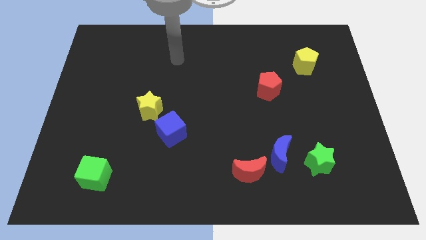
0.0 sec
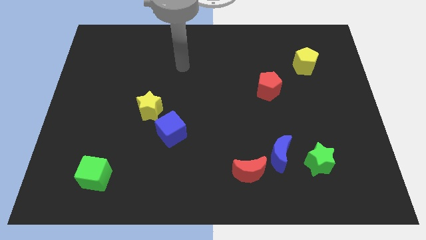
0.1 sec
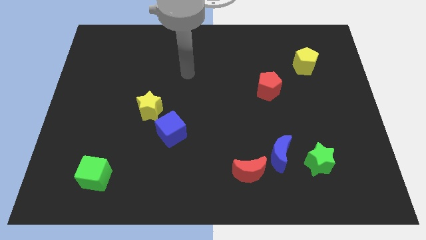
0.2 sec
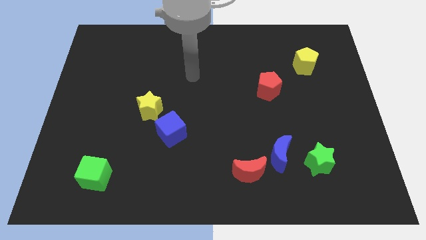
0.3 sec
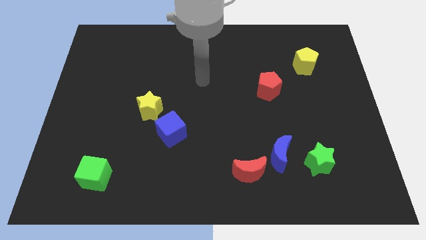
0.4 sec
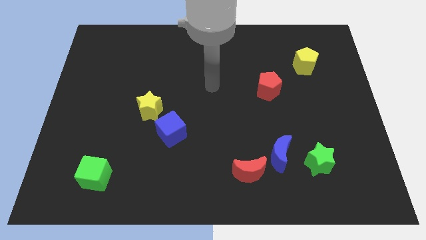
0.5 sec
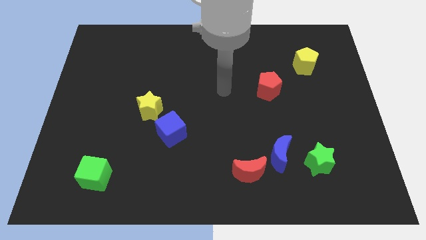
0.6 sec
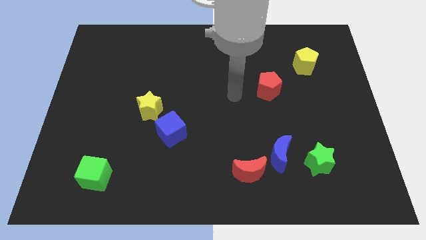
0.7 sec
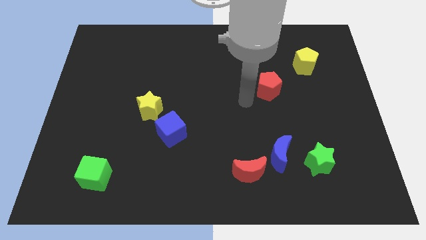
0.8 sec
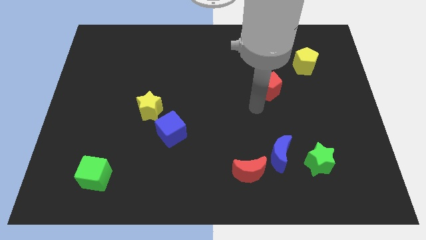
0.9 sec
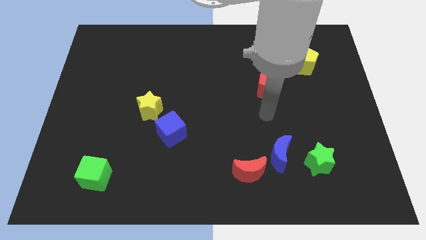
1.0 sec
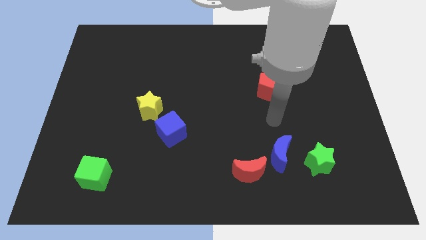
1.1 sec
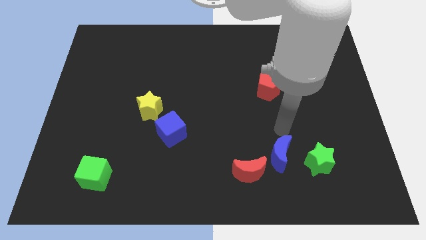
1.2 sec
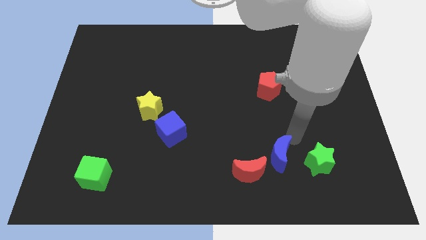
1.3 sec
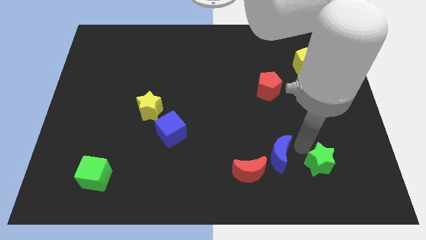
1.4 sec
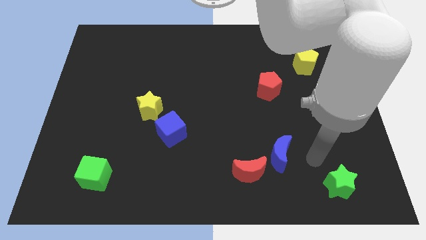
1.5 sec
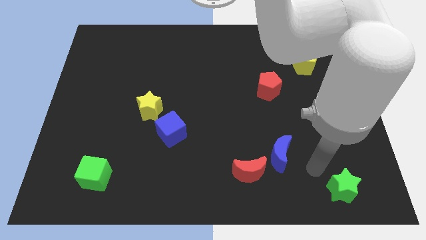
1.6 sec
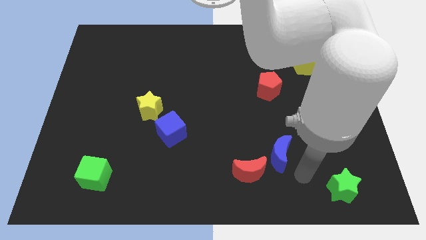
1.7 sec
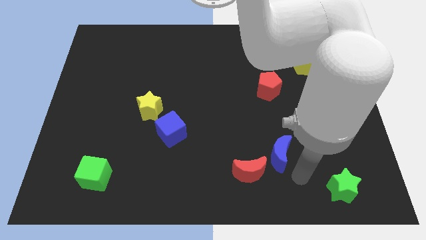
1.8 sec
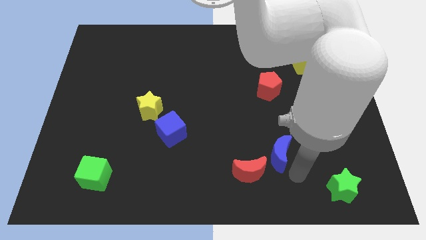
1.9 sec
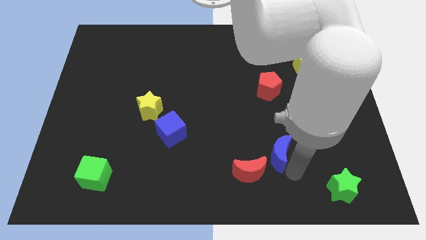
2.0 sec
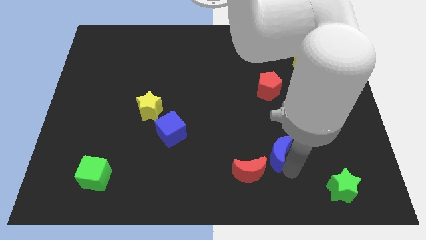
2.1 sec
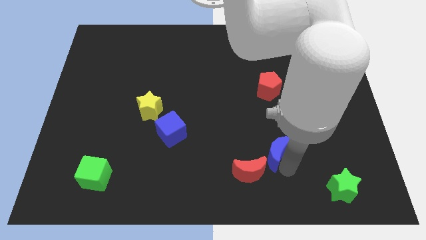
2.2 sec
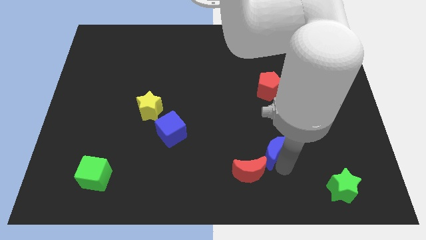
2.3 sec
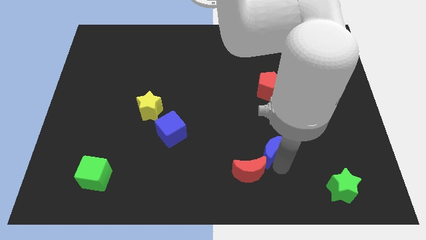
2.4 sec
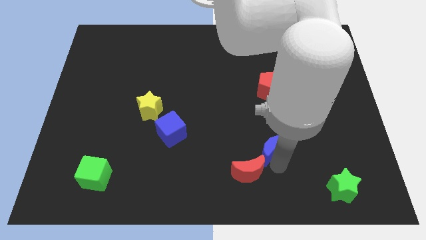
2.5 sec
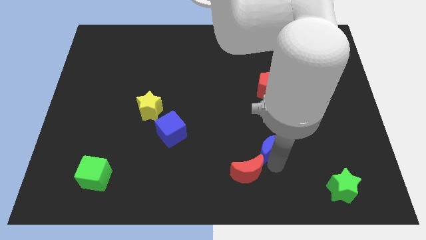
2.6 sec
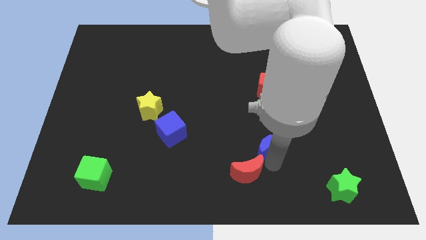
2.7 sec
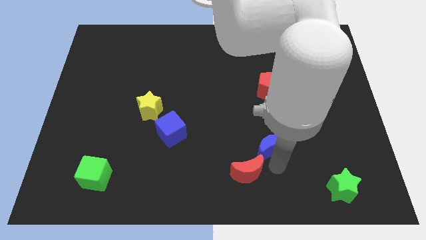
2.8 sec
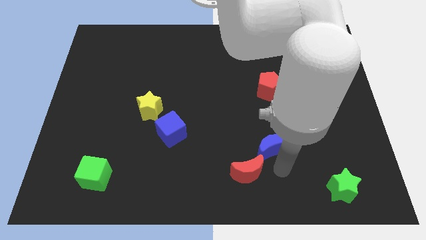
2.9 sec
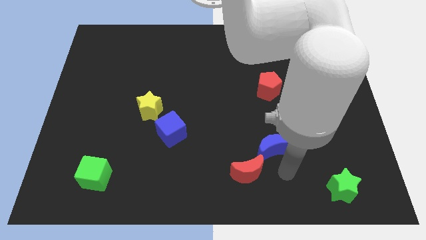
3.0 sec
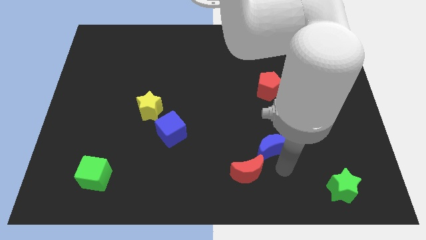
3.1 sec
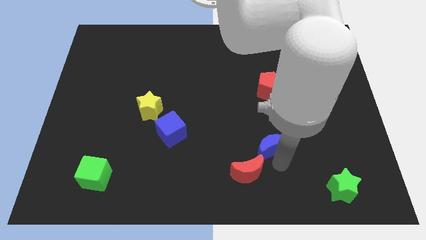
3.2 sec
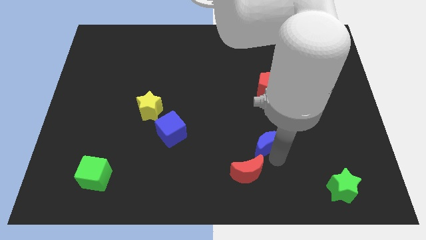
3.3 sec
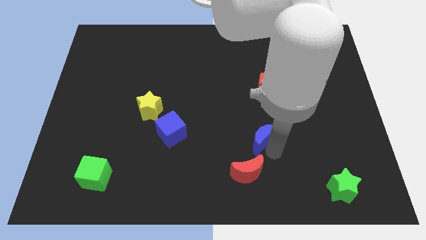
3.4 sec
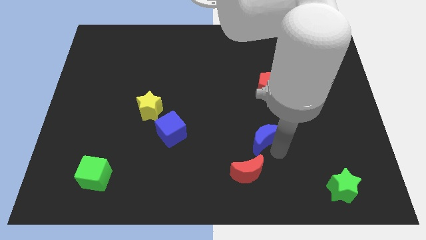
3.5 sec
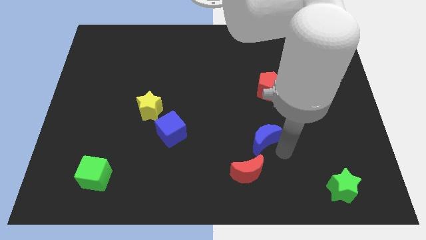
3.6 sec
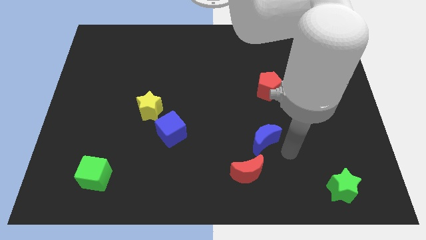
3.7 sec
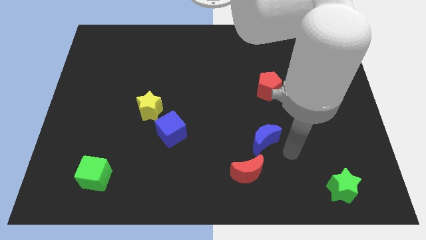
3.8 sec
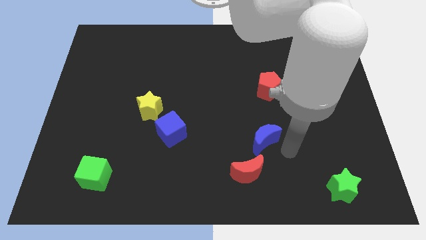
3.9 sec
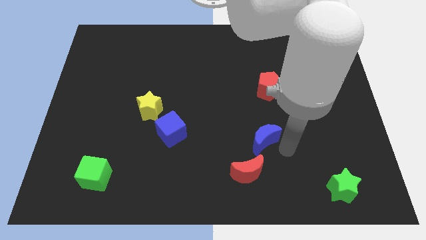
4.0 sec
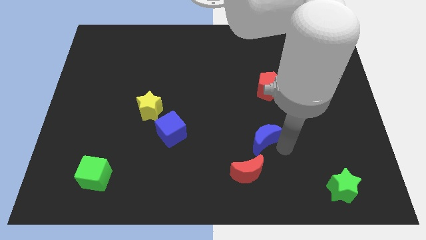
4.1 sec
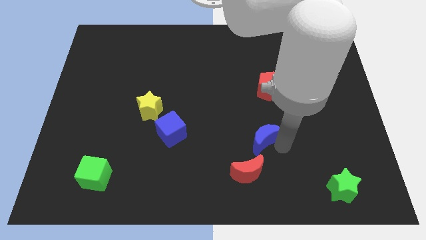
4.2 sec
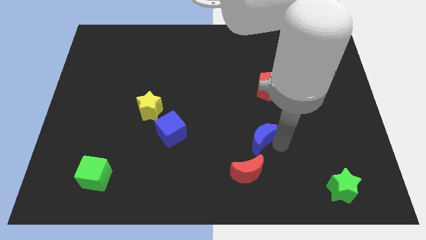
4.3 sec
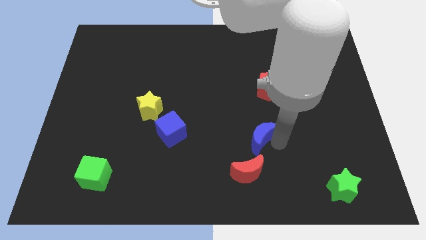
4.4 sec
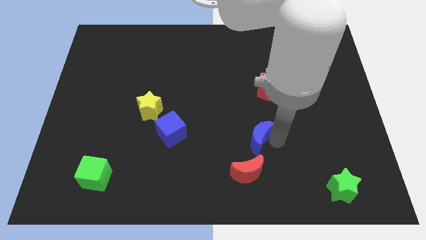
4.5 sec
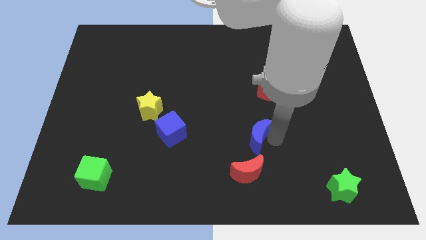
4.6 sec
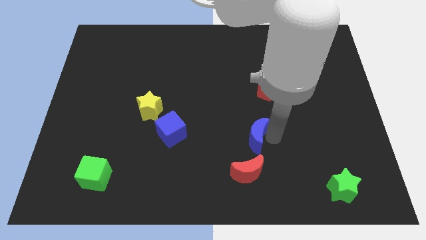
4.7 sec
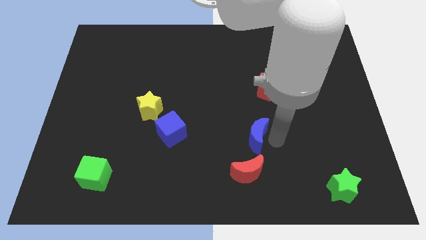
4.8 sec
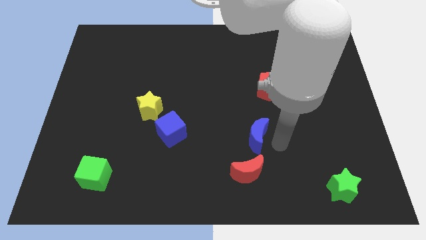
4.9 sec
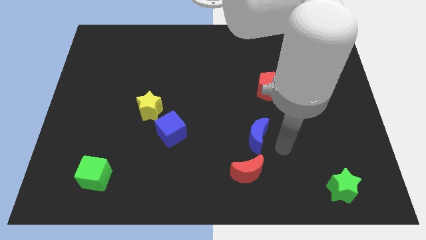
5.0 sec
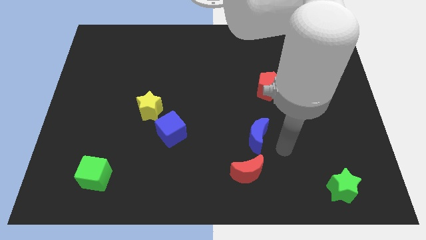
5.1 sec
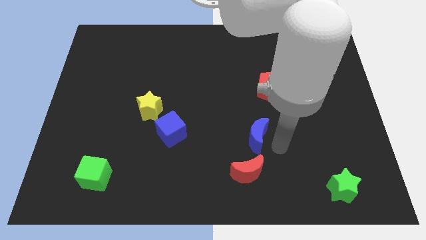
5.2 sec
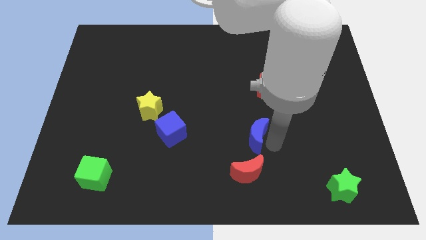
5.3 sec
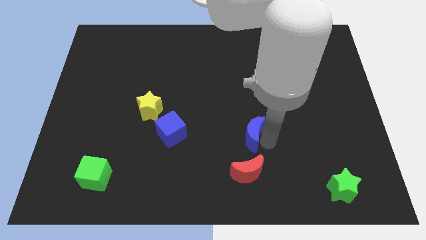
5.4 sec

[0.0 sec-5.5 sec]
push the blue moon a bit diagonally up and to the left

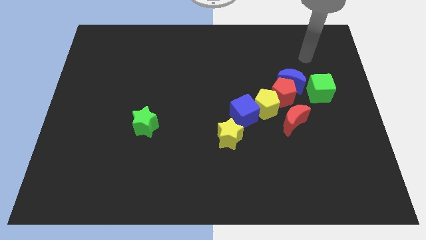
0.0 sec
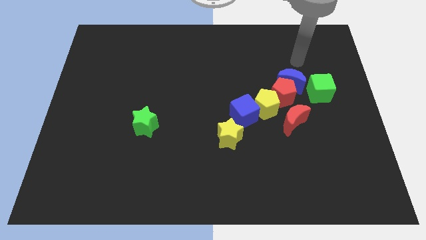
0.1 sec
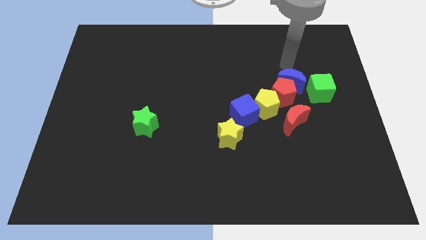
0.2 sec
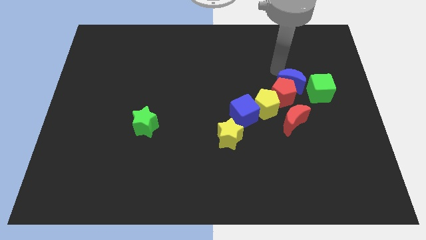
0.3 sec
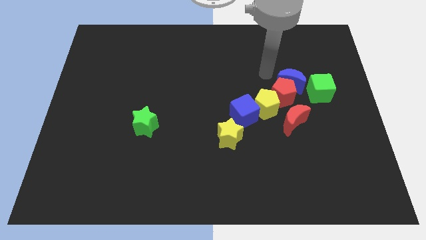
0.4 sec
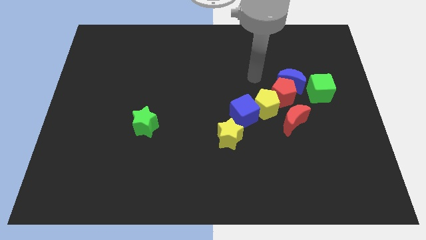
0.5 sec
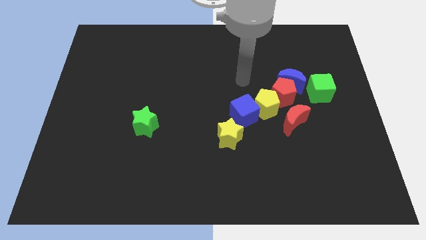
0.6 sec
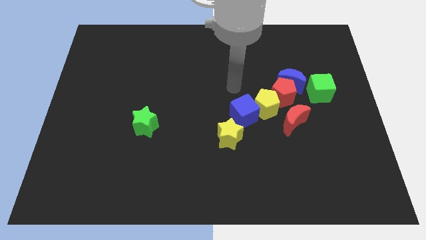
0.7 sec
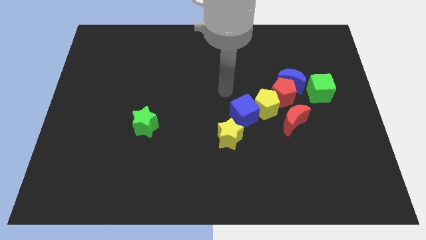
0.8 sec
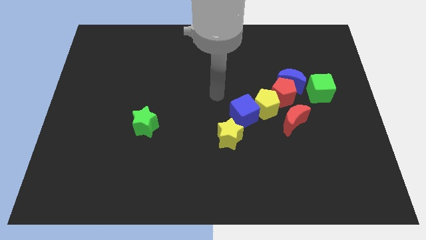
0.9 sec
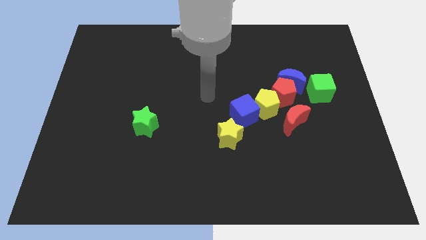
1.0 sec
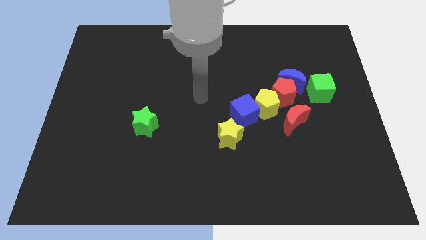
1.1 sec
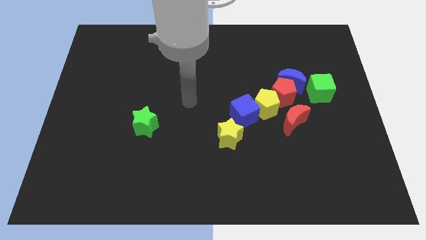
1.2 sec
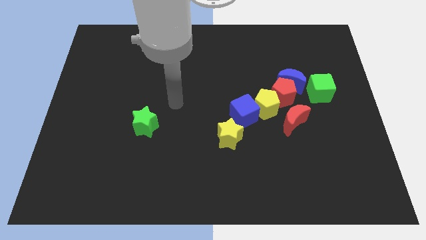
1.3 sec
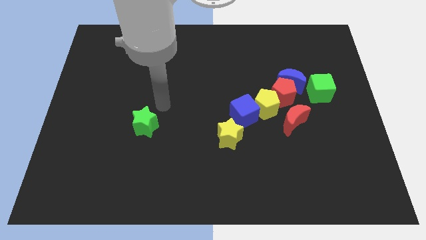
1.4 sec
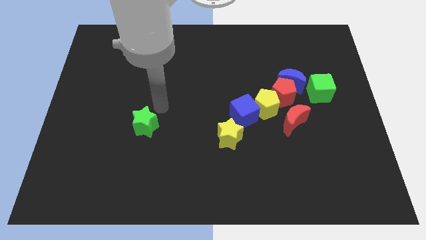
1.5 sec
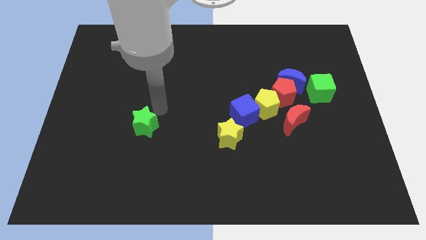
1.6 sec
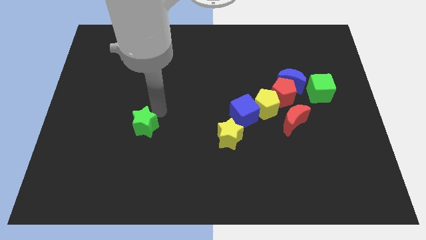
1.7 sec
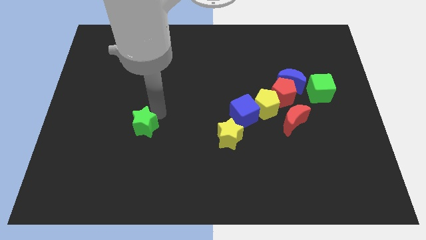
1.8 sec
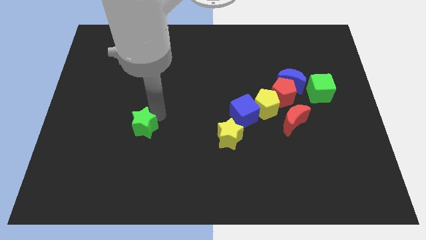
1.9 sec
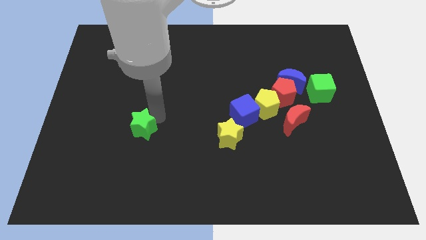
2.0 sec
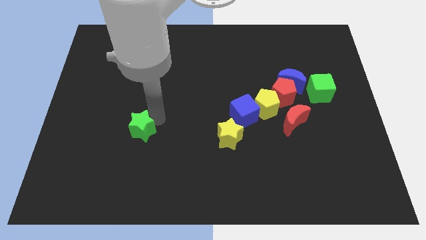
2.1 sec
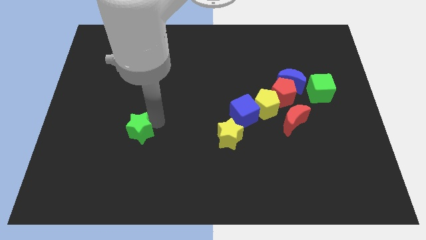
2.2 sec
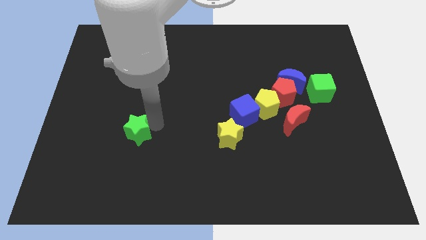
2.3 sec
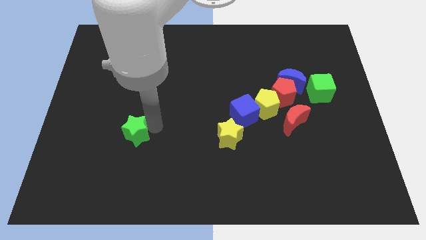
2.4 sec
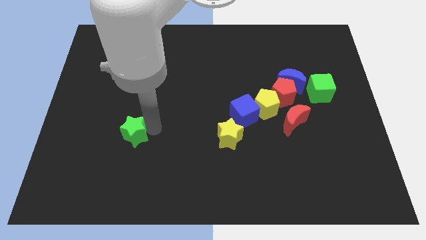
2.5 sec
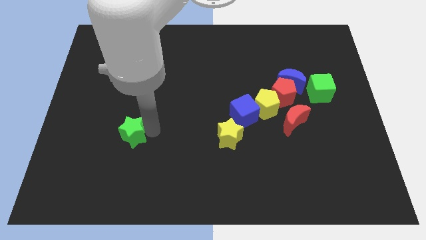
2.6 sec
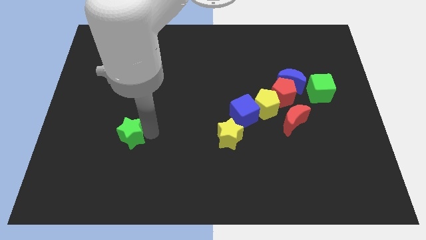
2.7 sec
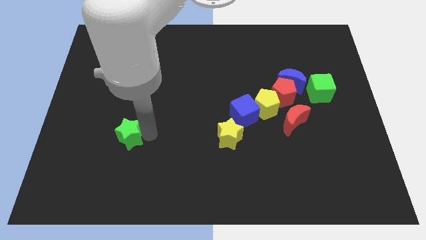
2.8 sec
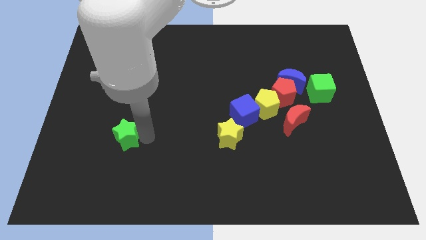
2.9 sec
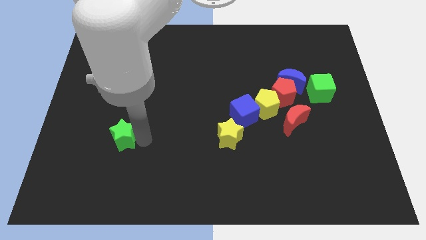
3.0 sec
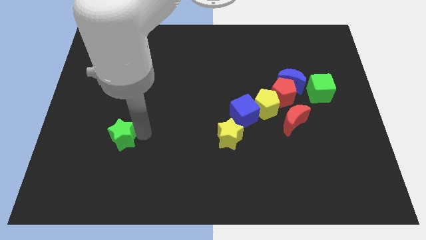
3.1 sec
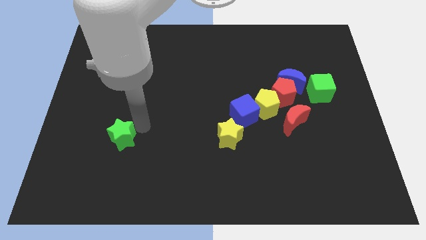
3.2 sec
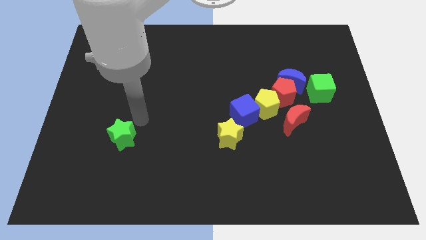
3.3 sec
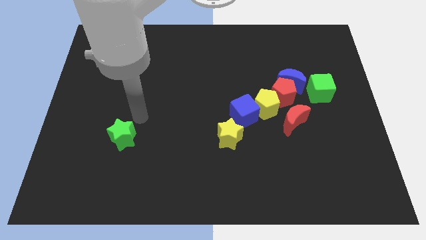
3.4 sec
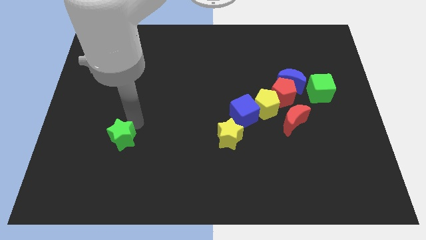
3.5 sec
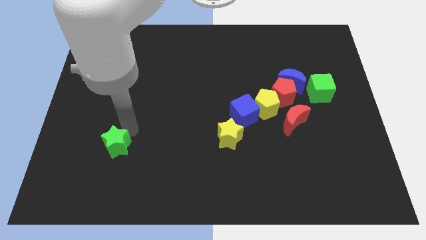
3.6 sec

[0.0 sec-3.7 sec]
push the green star diagonally down and to the left a little bit
